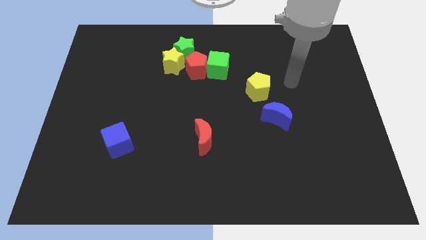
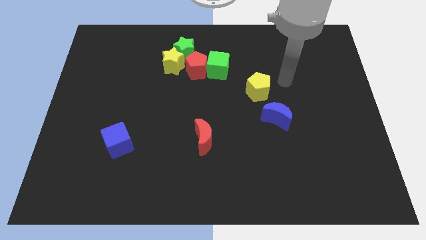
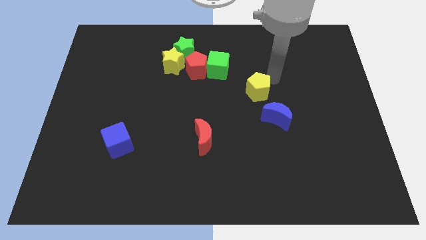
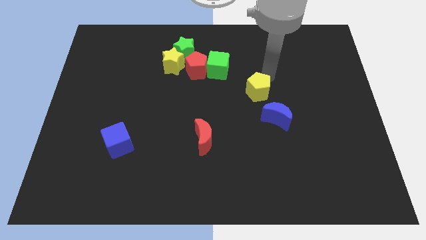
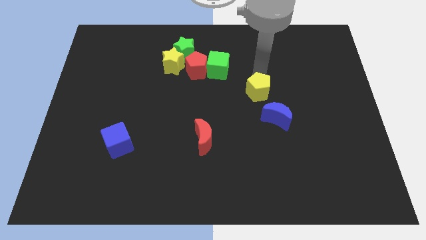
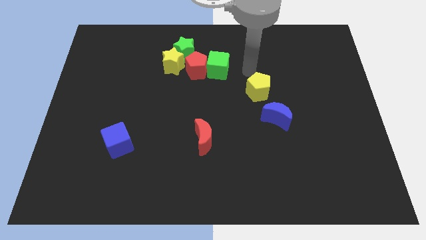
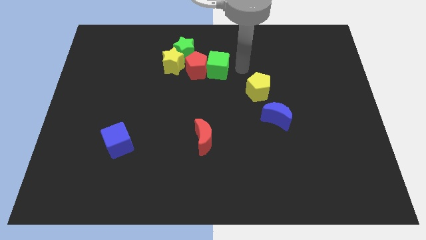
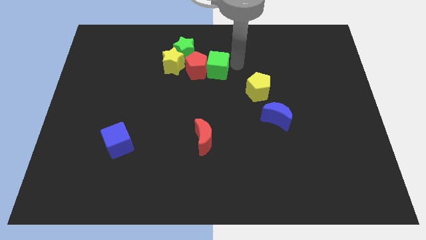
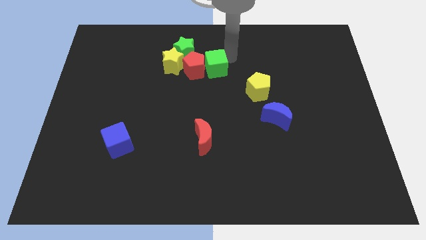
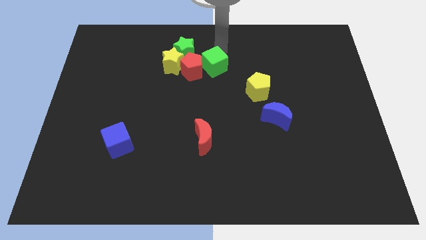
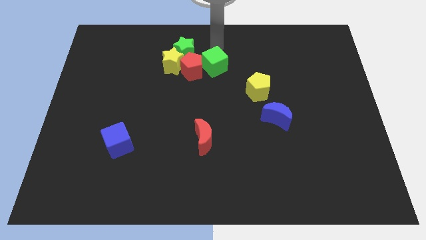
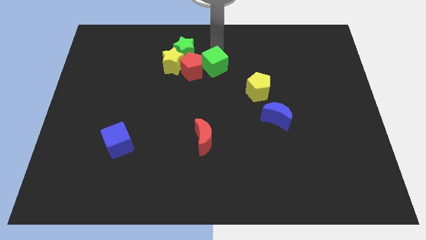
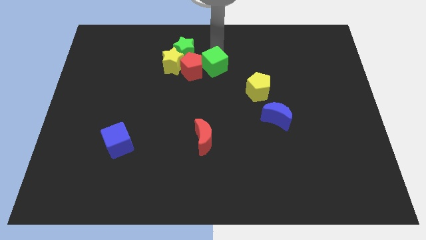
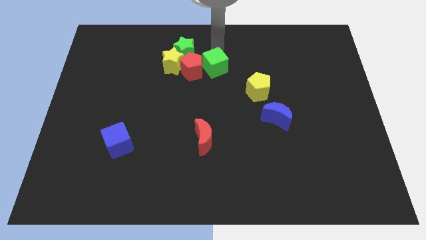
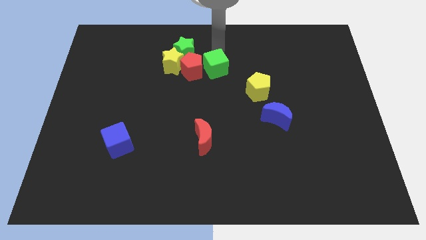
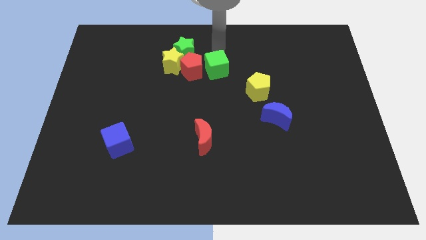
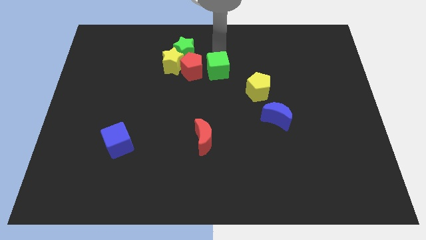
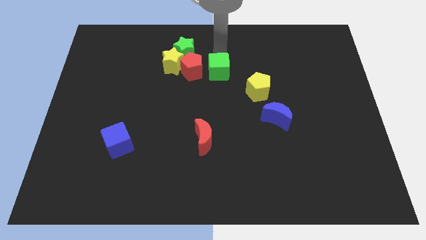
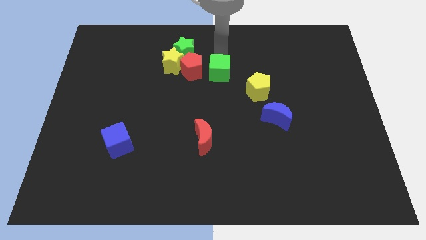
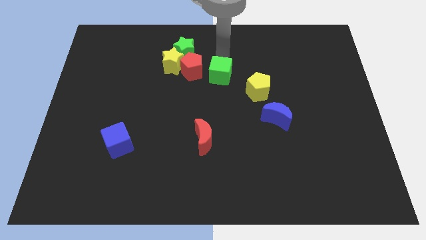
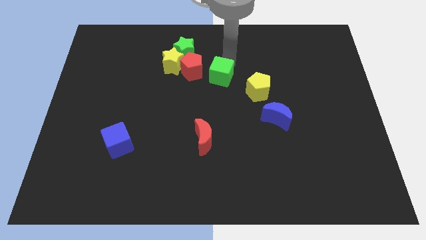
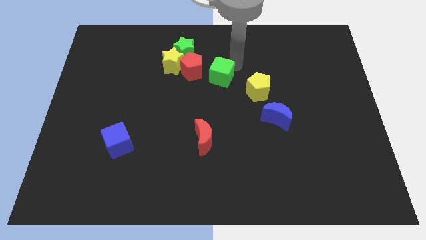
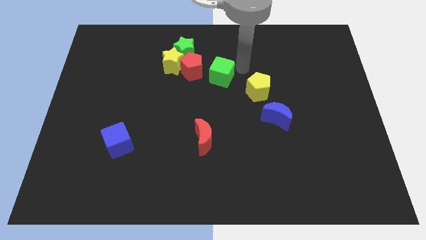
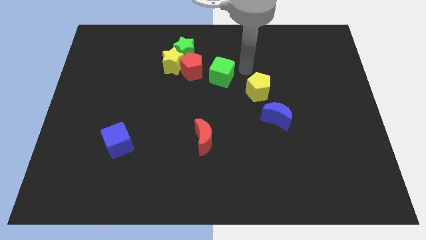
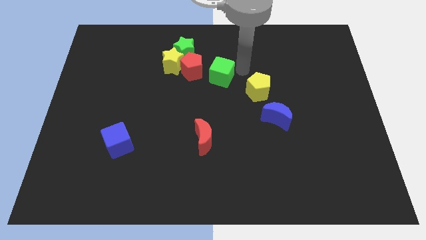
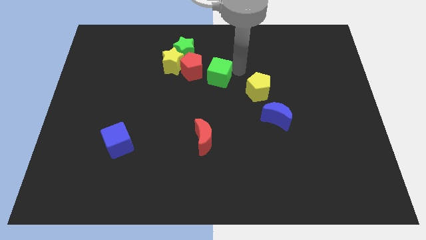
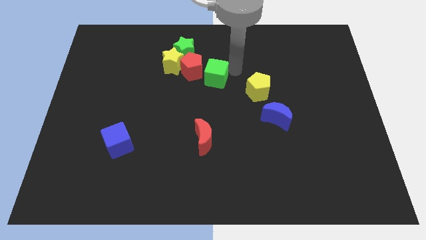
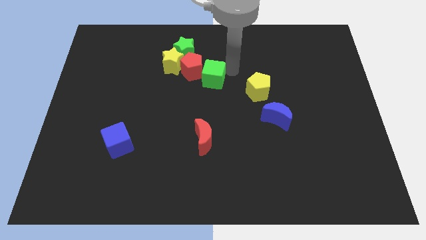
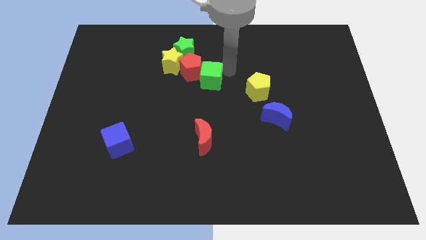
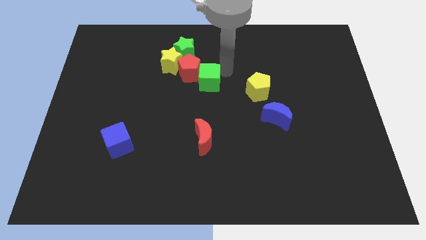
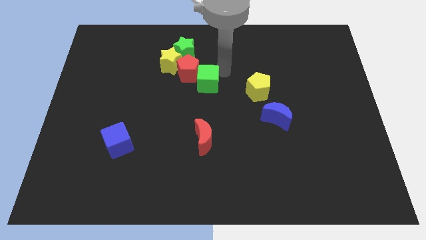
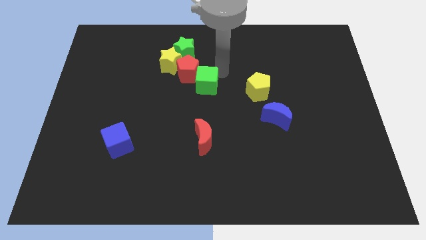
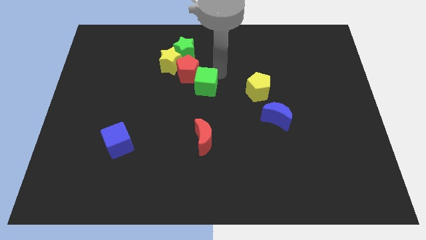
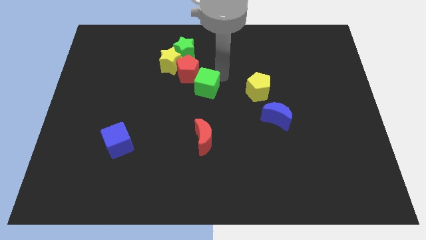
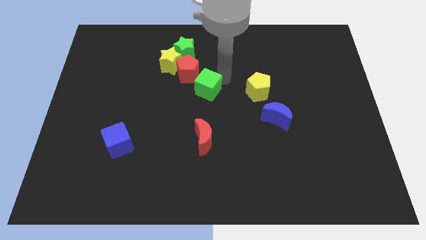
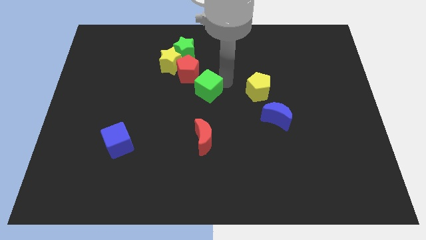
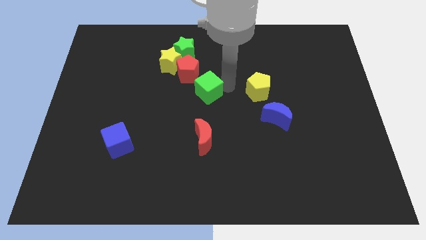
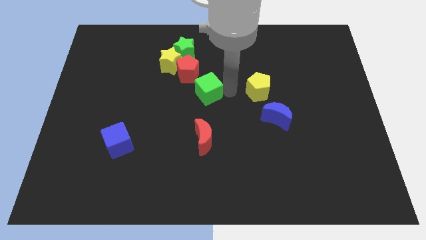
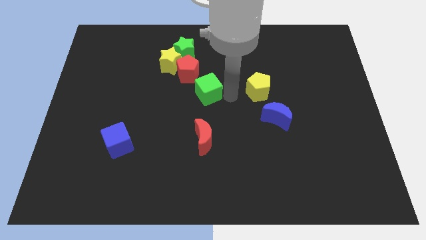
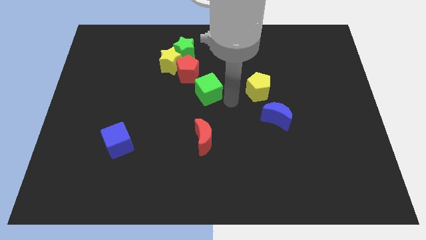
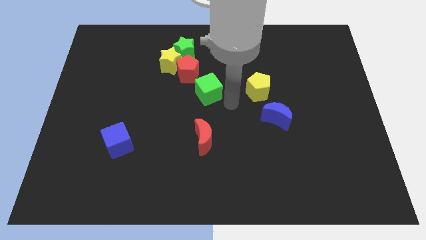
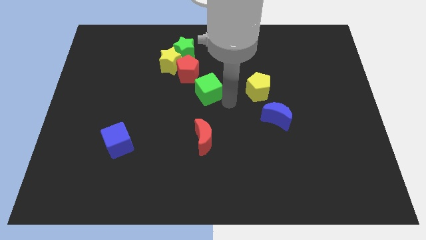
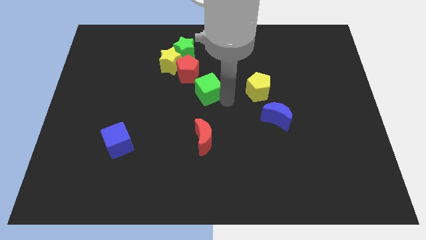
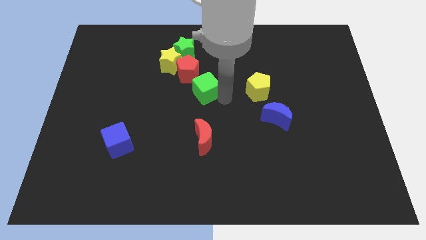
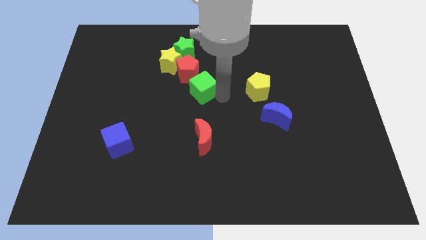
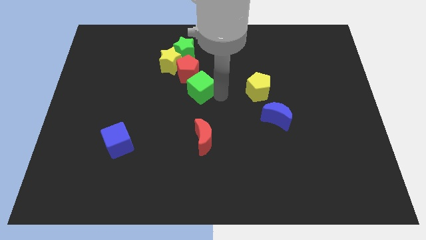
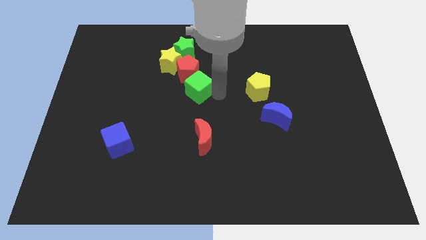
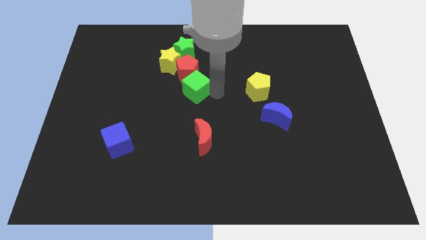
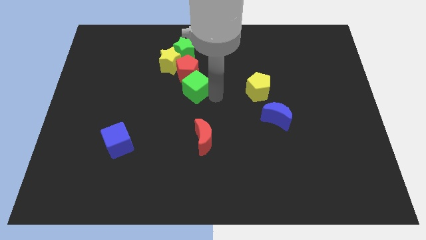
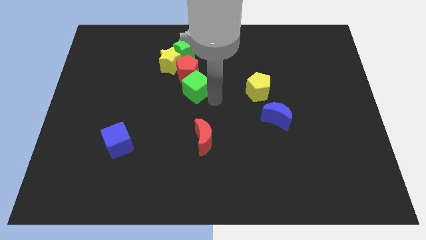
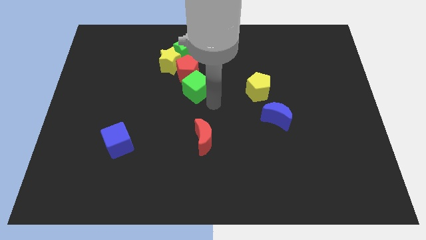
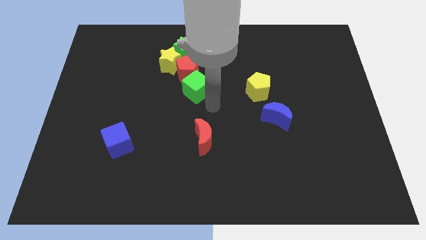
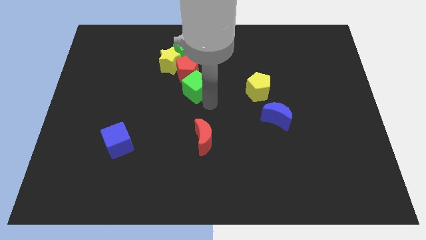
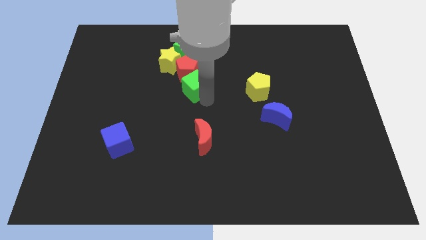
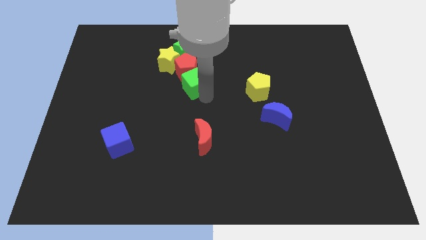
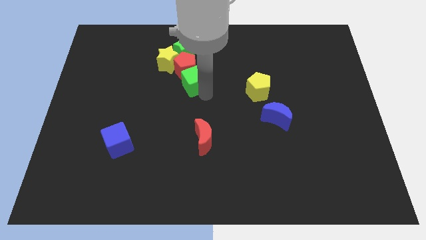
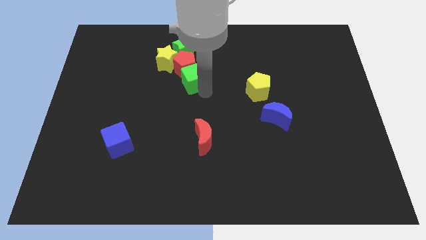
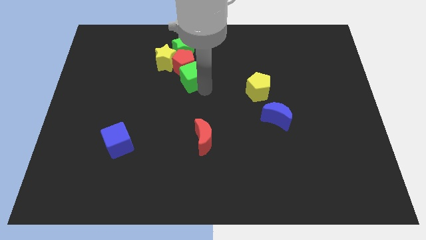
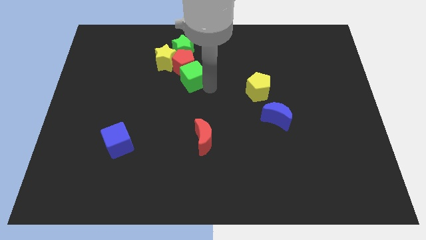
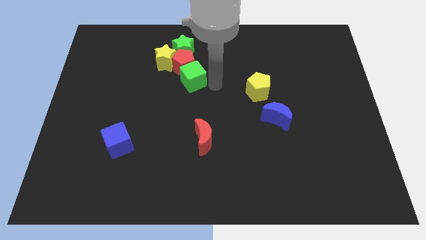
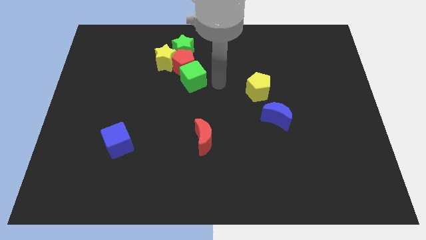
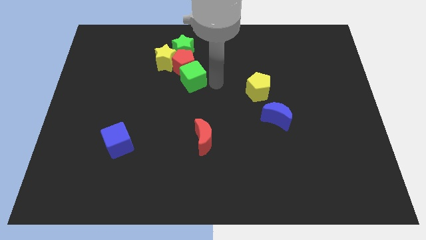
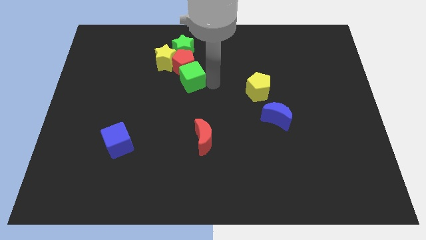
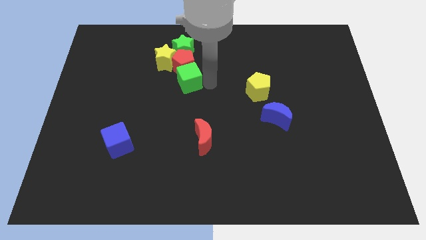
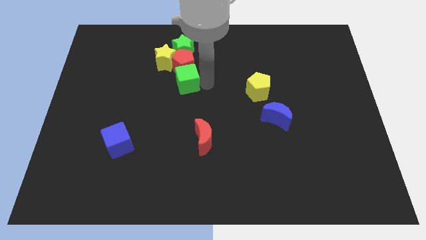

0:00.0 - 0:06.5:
move the green cube left a little

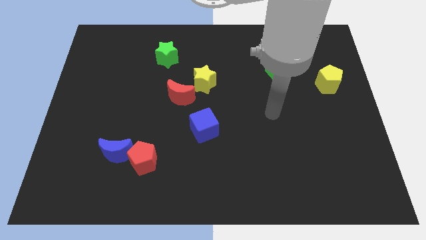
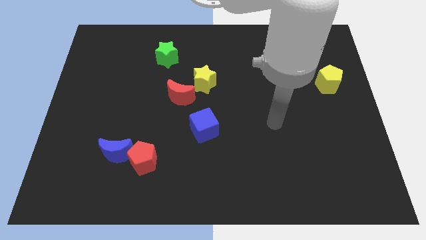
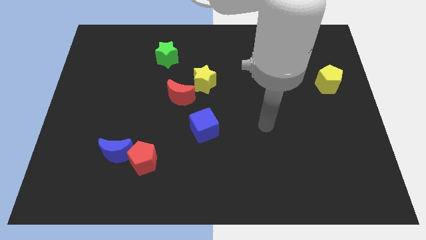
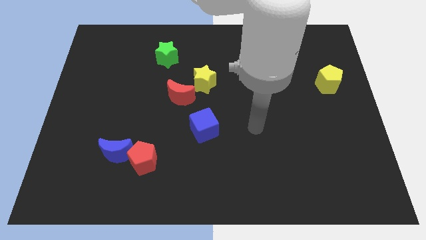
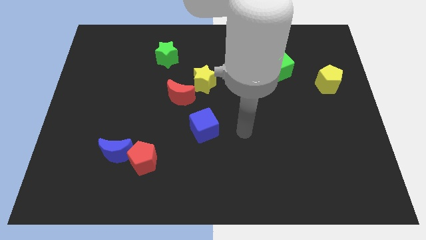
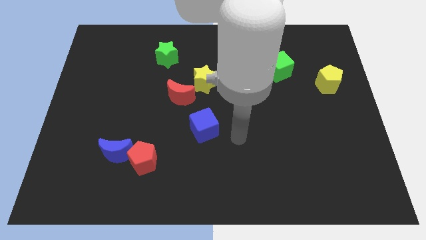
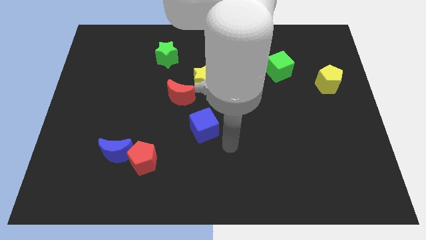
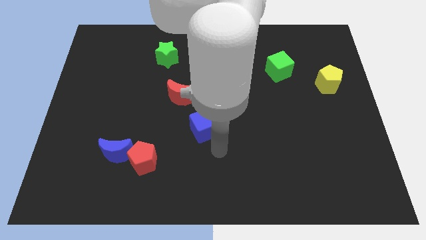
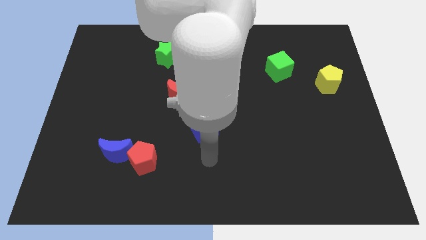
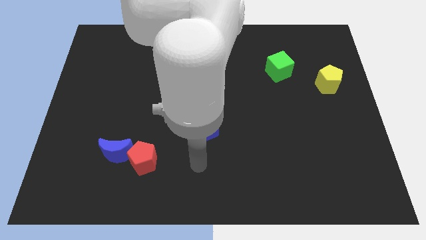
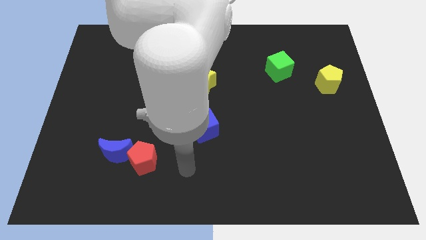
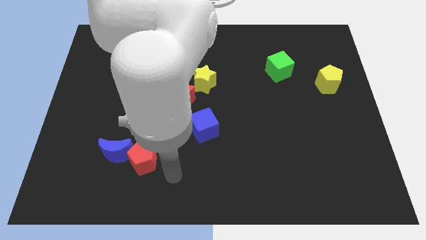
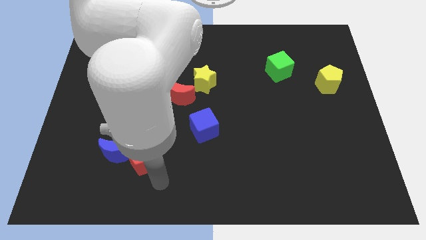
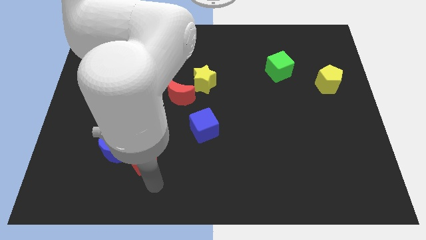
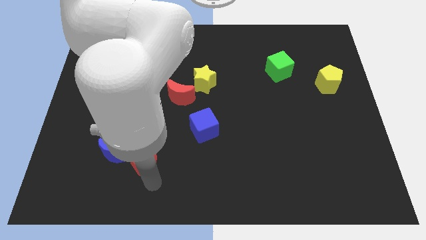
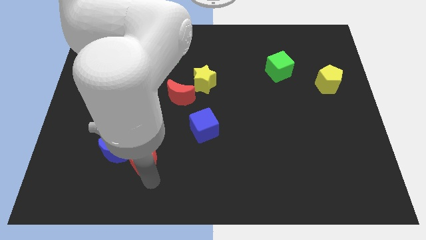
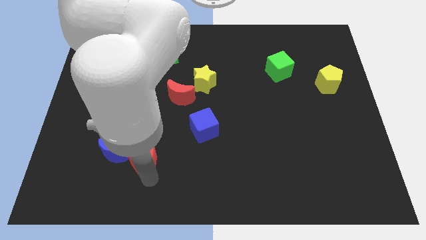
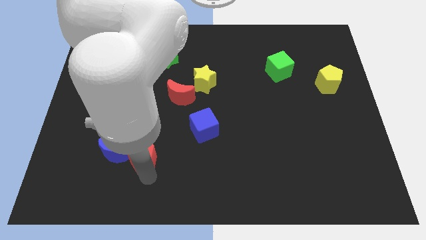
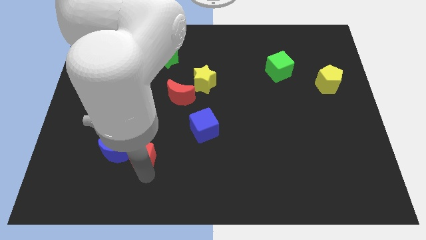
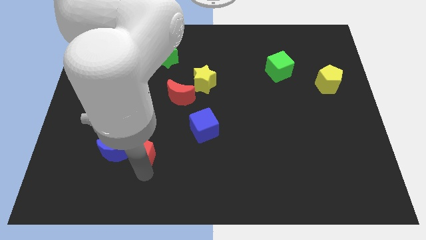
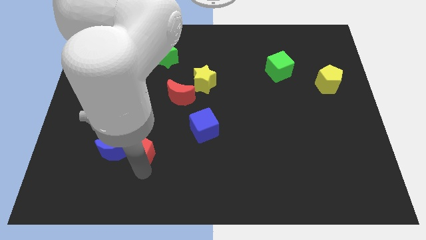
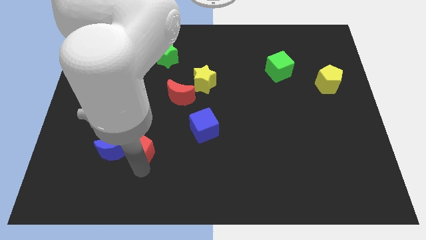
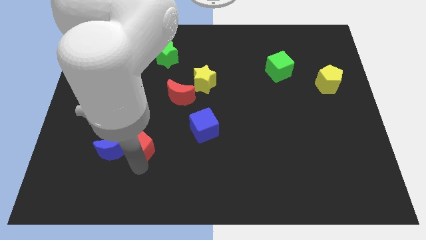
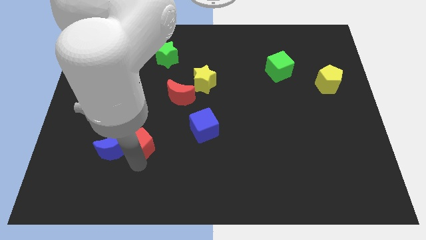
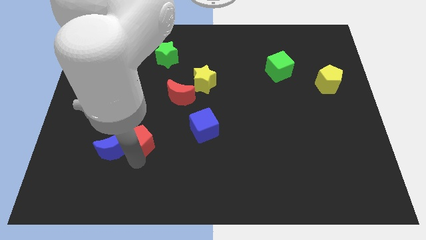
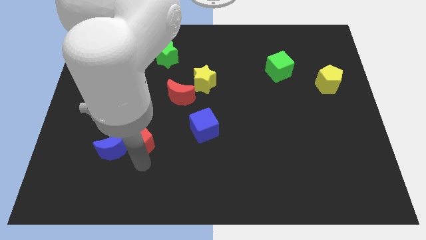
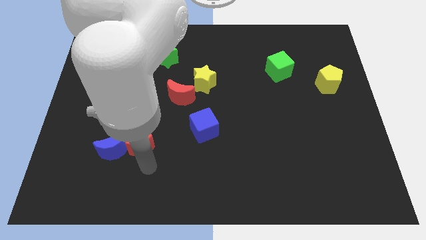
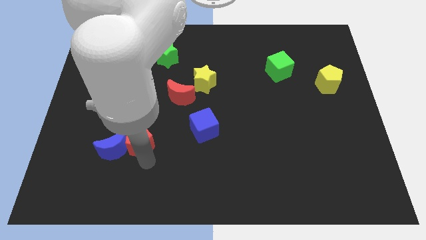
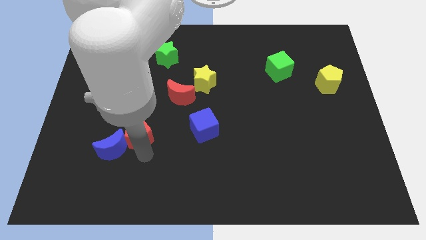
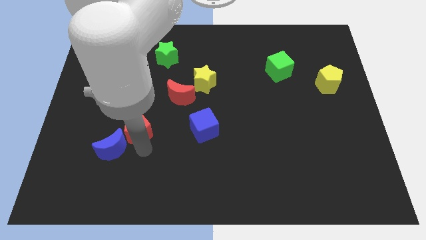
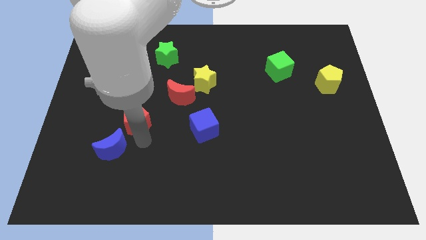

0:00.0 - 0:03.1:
slide the red pentagon up and left diagonally somewhat
